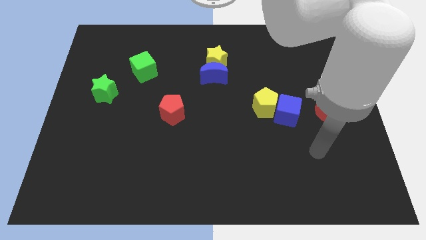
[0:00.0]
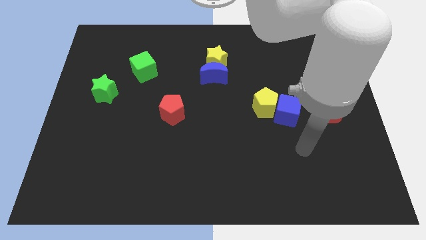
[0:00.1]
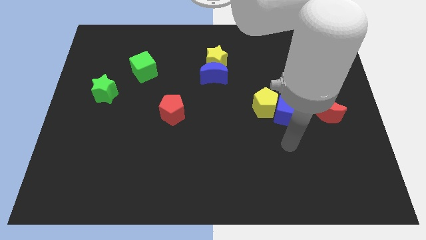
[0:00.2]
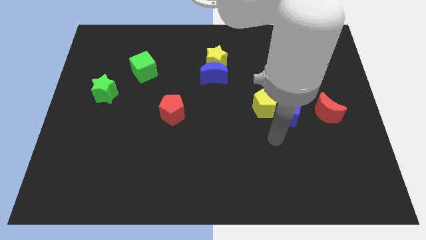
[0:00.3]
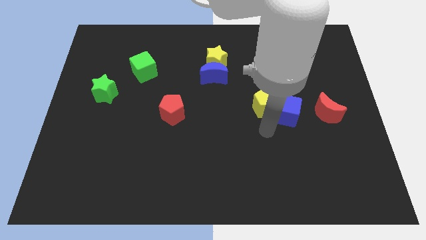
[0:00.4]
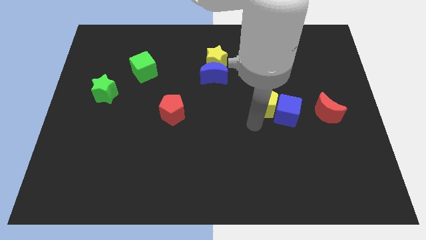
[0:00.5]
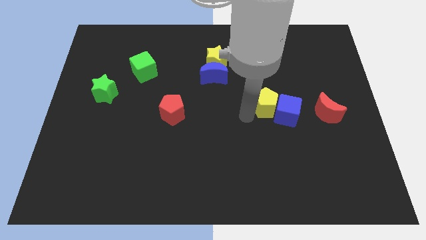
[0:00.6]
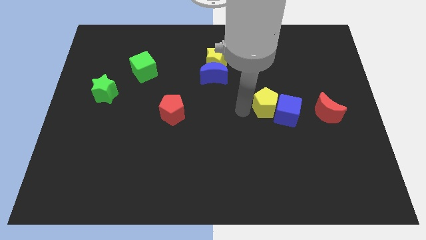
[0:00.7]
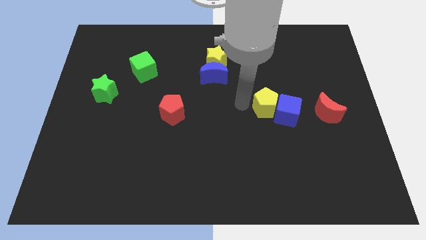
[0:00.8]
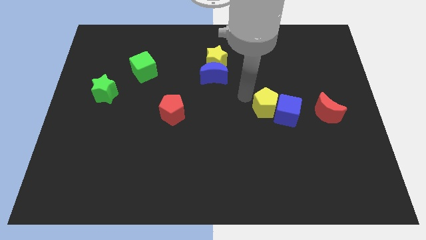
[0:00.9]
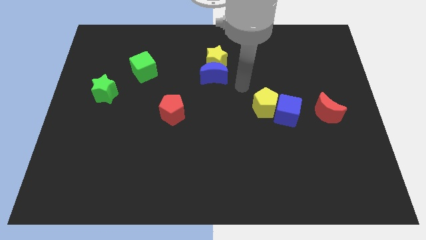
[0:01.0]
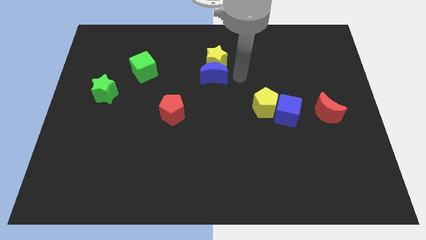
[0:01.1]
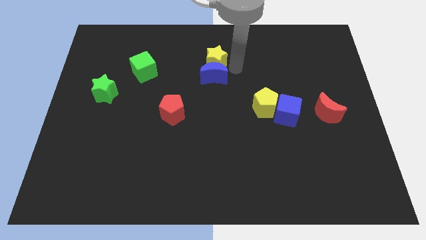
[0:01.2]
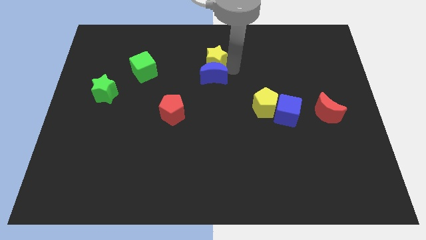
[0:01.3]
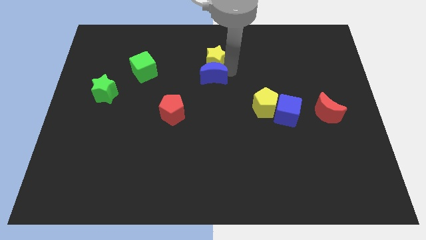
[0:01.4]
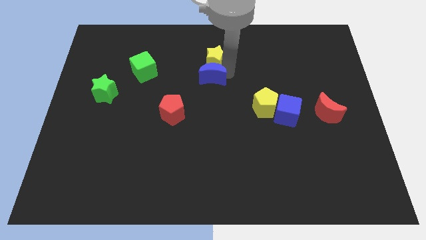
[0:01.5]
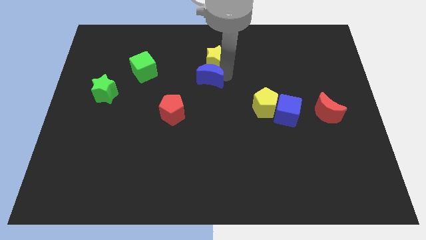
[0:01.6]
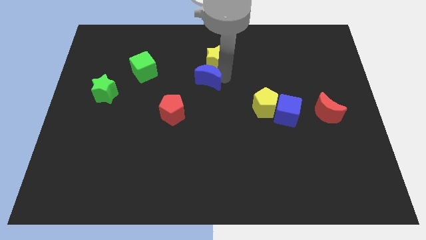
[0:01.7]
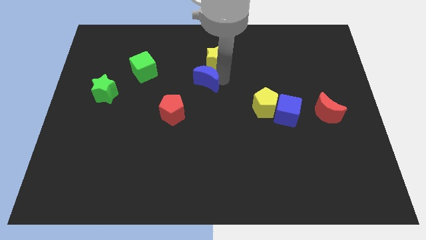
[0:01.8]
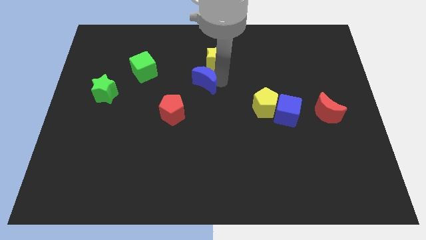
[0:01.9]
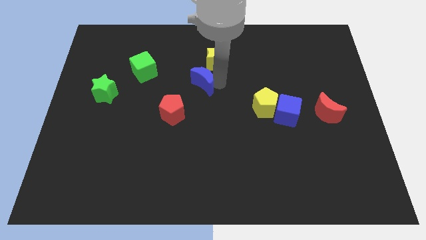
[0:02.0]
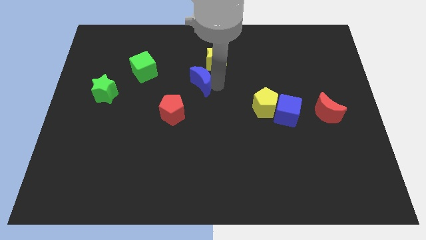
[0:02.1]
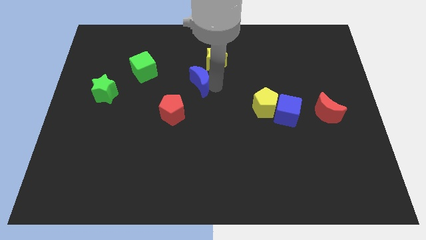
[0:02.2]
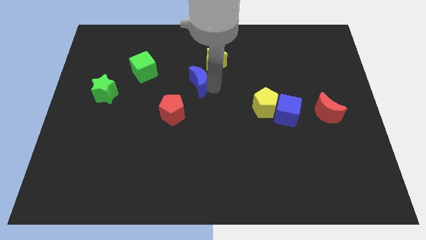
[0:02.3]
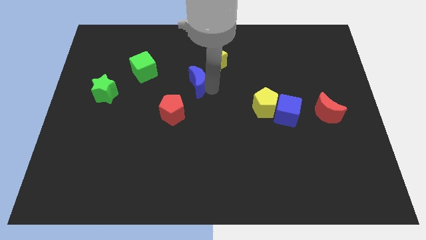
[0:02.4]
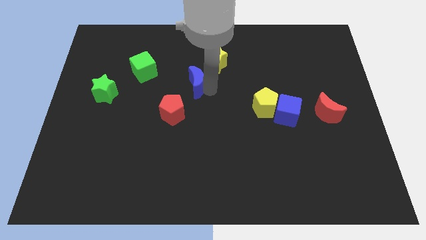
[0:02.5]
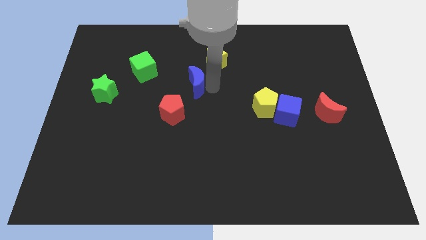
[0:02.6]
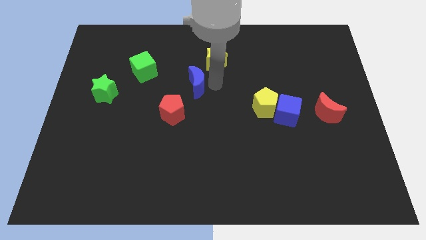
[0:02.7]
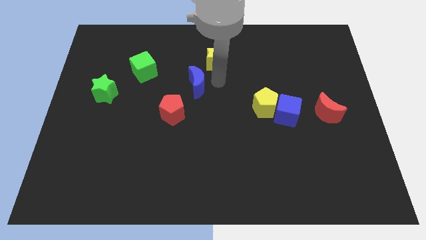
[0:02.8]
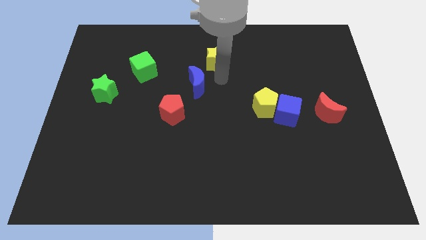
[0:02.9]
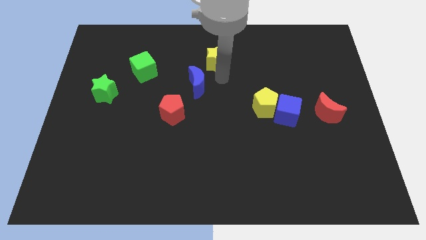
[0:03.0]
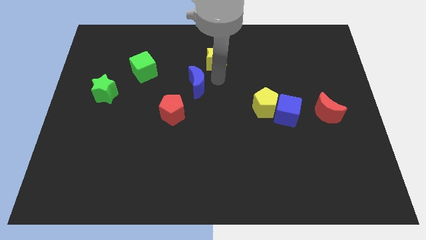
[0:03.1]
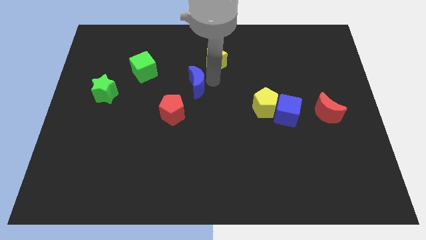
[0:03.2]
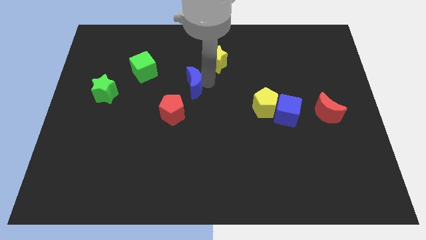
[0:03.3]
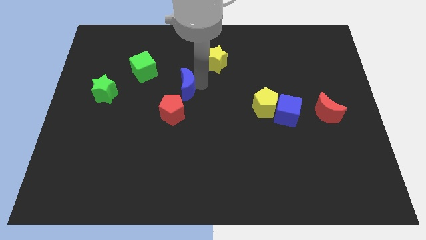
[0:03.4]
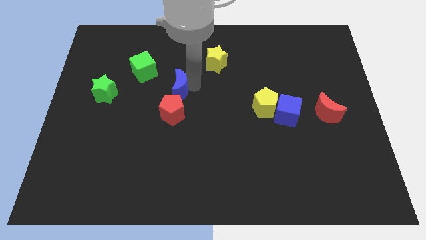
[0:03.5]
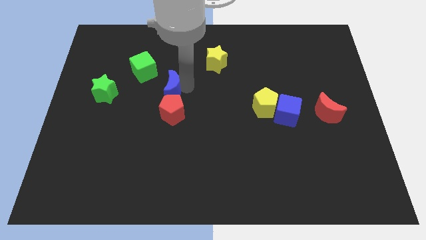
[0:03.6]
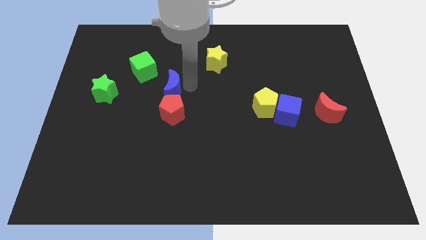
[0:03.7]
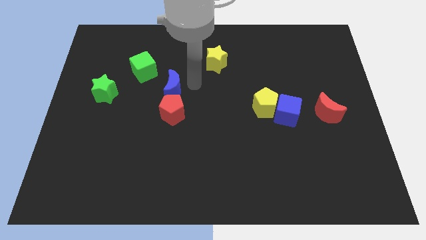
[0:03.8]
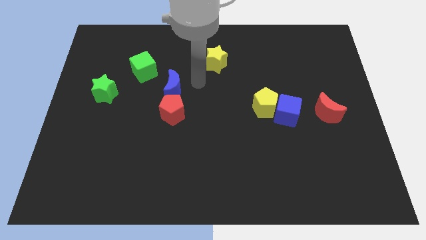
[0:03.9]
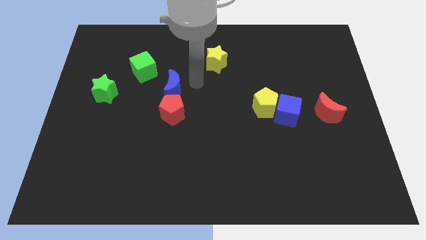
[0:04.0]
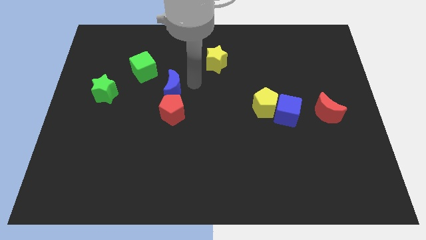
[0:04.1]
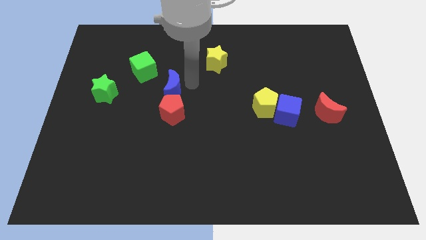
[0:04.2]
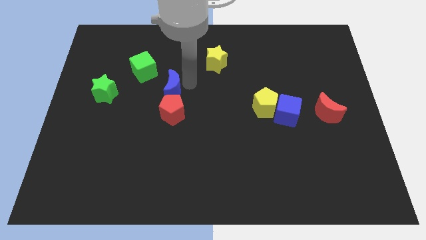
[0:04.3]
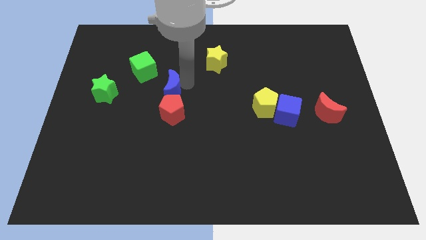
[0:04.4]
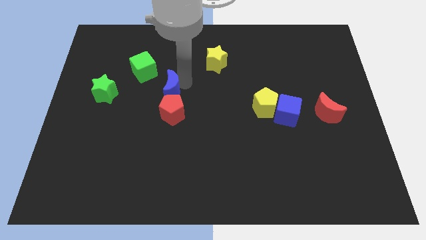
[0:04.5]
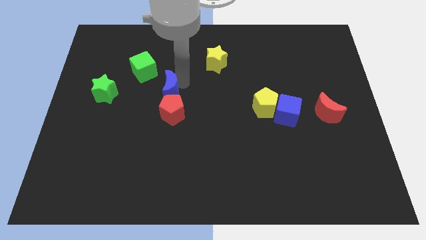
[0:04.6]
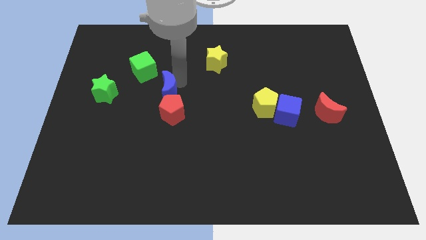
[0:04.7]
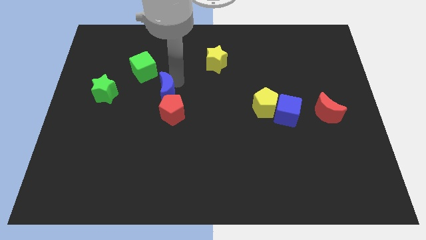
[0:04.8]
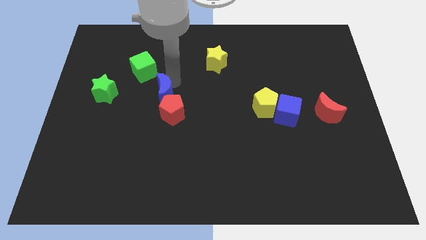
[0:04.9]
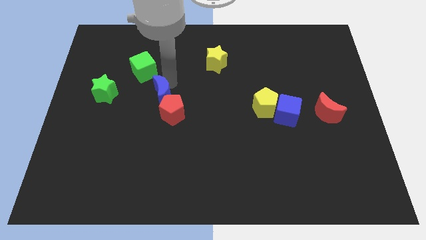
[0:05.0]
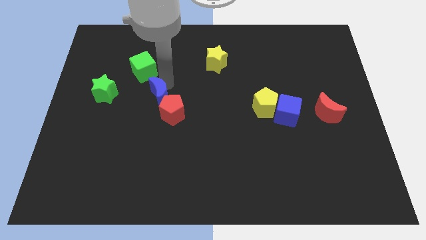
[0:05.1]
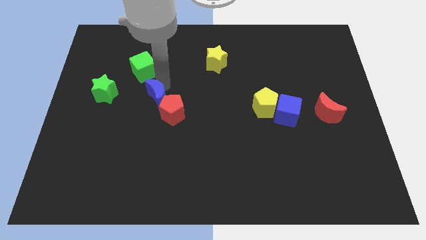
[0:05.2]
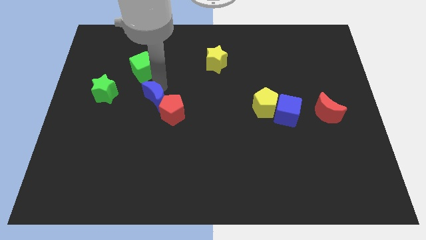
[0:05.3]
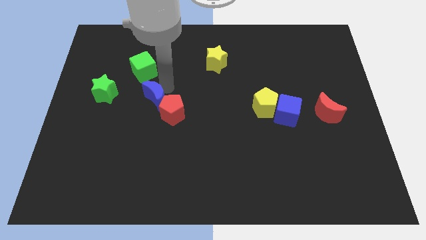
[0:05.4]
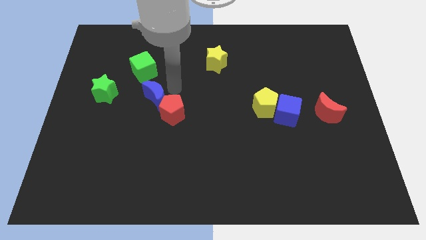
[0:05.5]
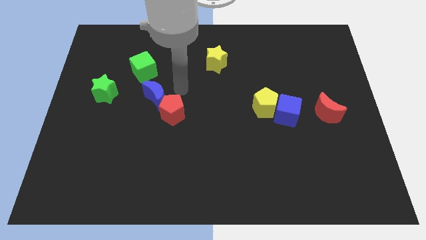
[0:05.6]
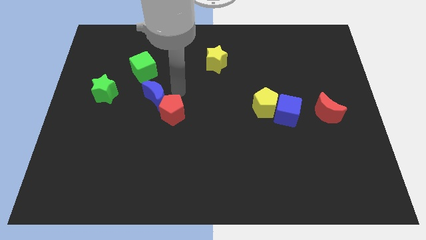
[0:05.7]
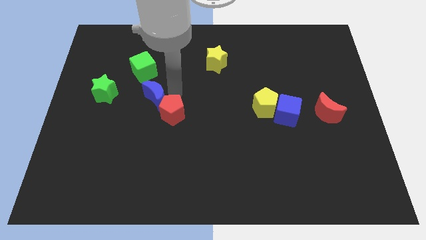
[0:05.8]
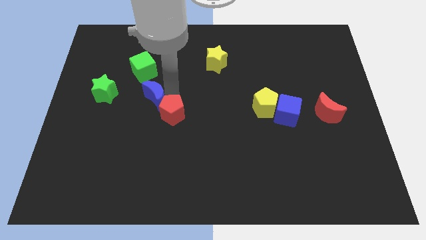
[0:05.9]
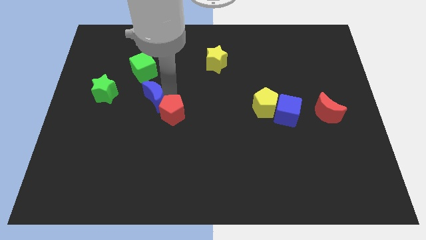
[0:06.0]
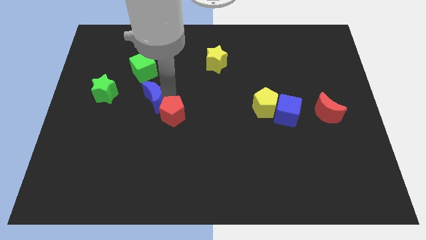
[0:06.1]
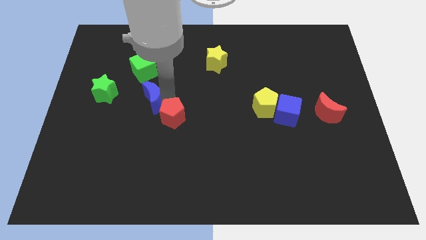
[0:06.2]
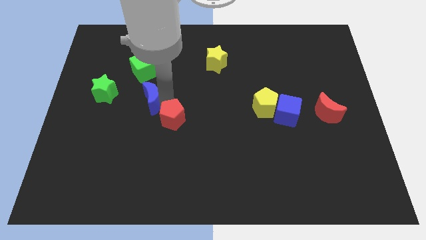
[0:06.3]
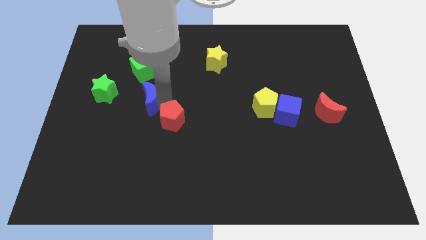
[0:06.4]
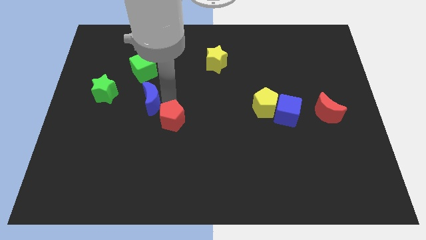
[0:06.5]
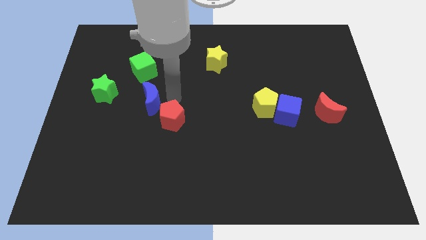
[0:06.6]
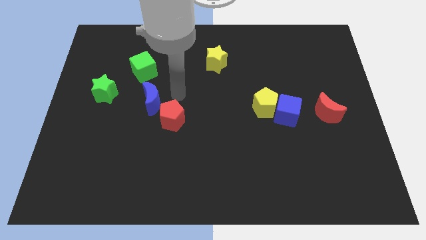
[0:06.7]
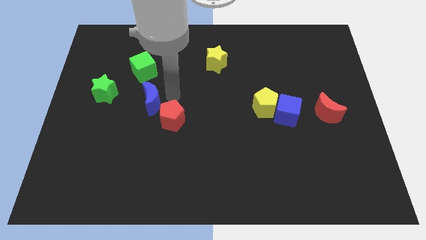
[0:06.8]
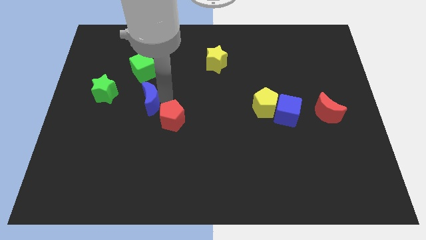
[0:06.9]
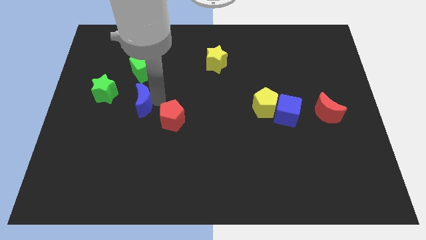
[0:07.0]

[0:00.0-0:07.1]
put the blue moon diagonally down and to the right of the green star

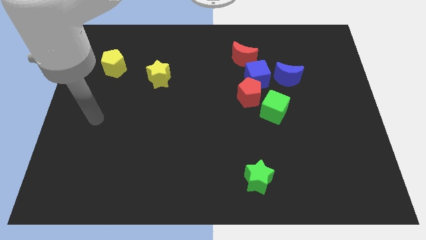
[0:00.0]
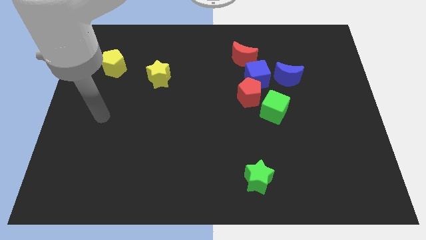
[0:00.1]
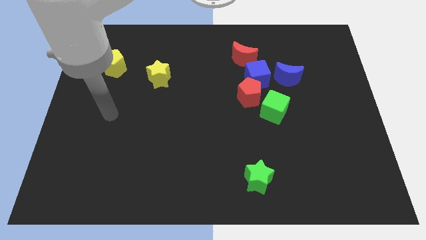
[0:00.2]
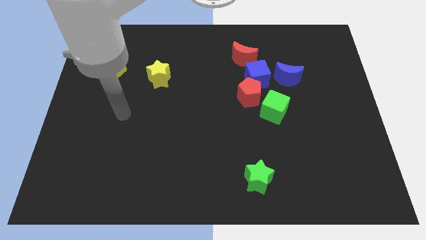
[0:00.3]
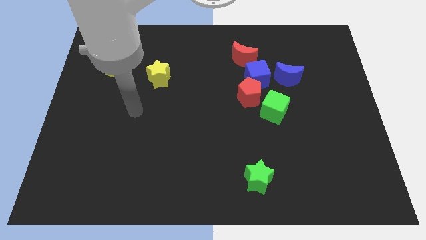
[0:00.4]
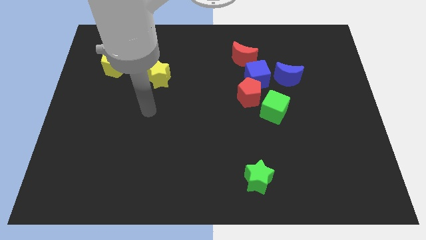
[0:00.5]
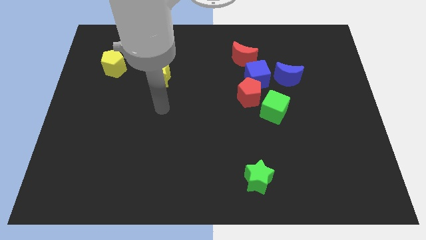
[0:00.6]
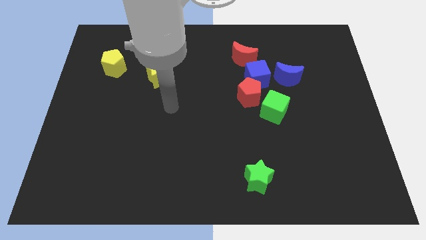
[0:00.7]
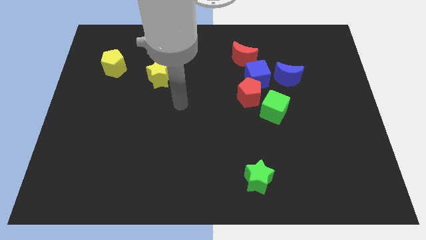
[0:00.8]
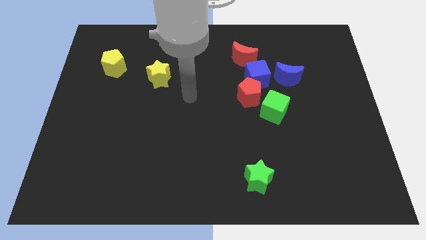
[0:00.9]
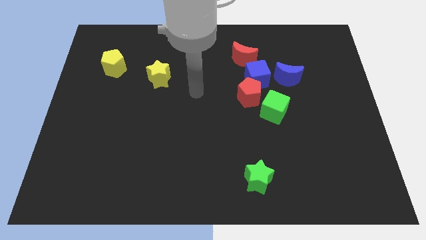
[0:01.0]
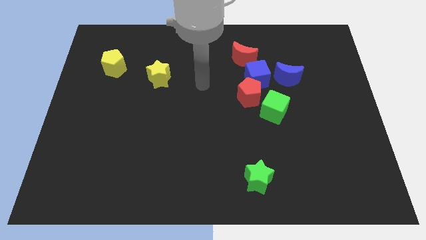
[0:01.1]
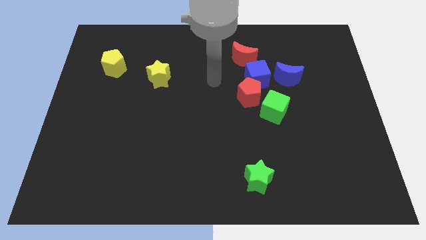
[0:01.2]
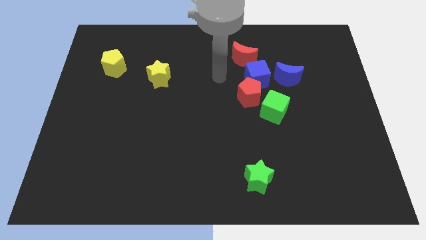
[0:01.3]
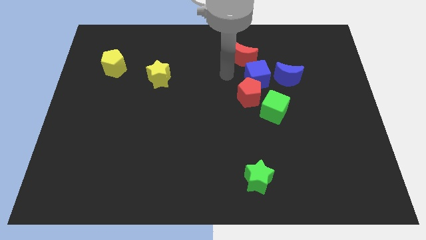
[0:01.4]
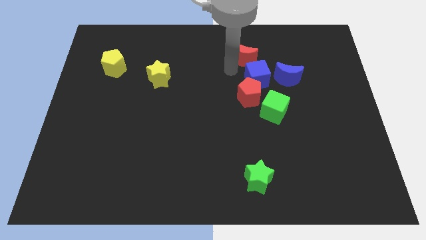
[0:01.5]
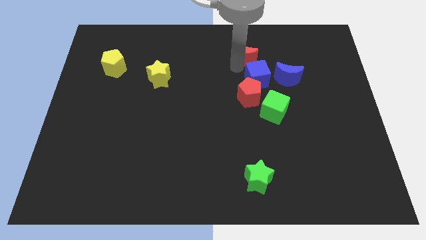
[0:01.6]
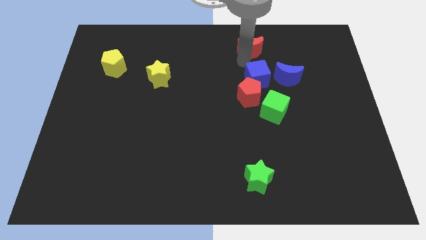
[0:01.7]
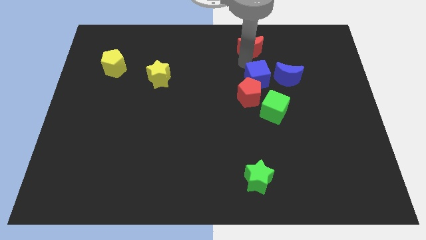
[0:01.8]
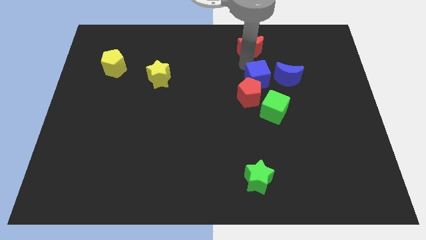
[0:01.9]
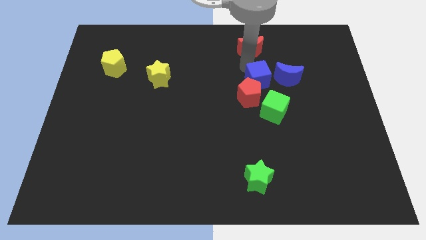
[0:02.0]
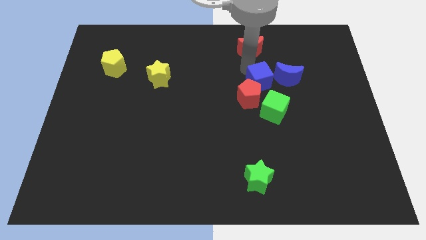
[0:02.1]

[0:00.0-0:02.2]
move the blue cube to the bottom left side of the blue moon
